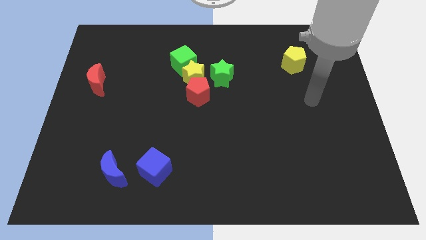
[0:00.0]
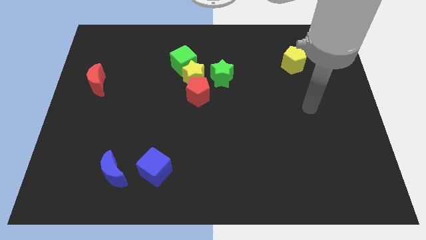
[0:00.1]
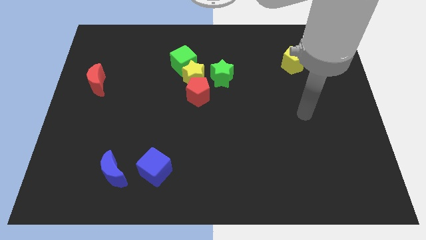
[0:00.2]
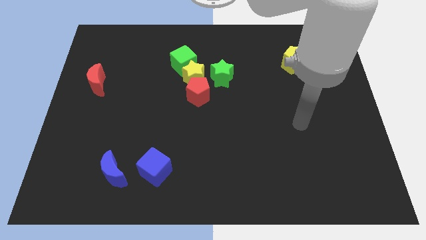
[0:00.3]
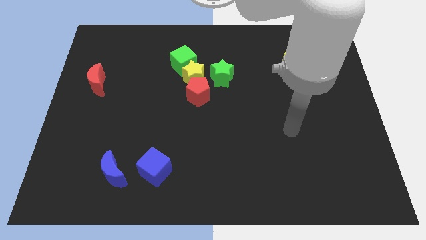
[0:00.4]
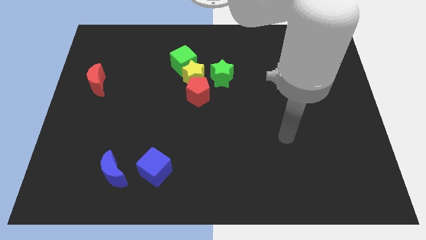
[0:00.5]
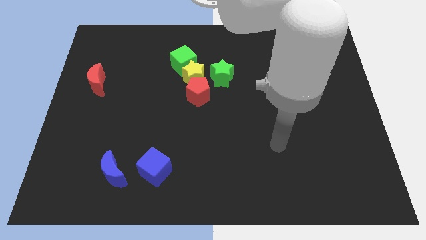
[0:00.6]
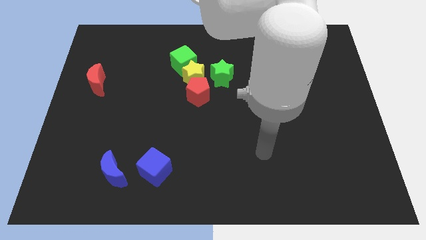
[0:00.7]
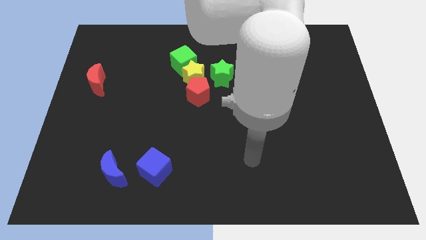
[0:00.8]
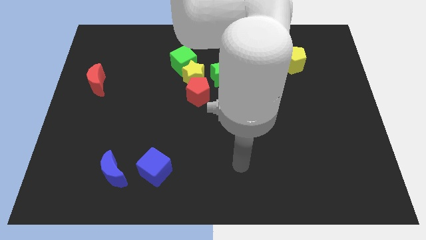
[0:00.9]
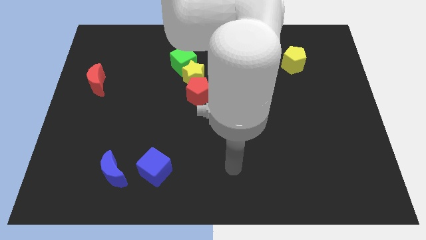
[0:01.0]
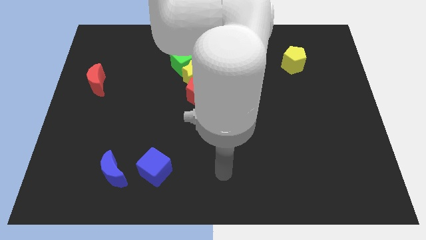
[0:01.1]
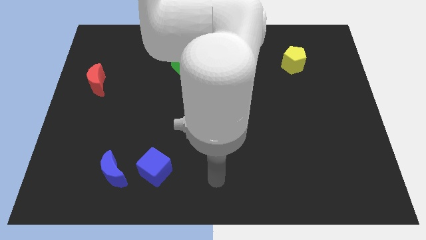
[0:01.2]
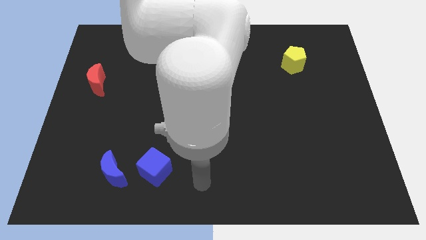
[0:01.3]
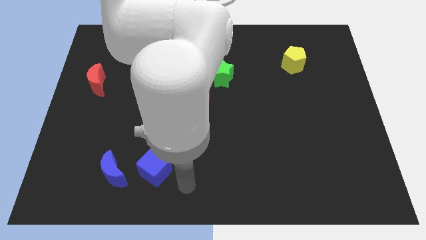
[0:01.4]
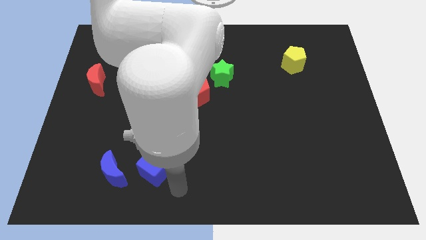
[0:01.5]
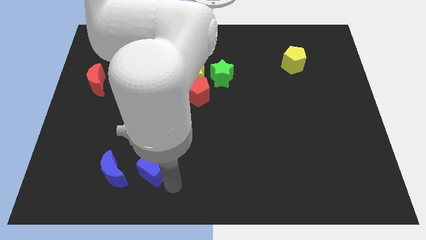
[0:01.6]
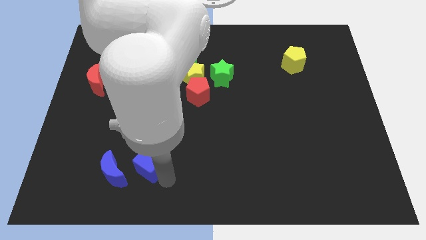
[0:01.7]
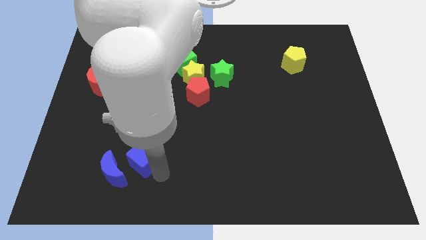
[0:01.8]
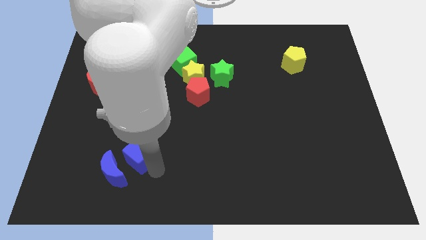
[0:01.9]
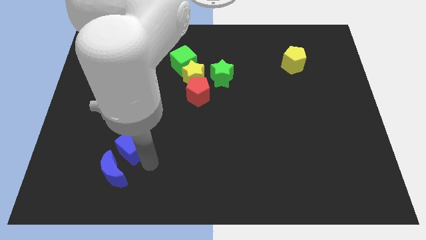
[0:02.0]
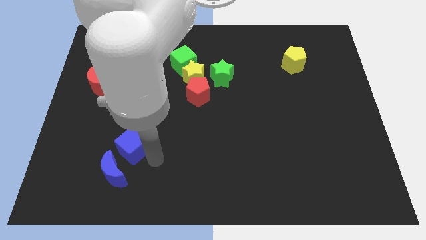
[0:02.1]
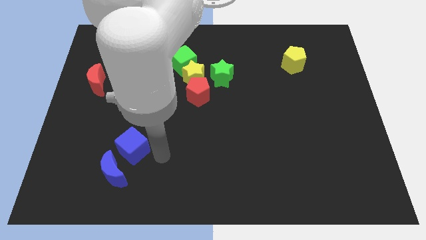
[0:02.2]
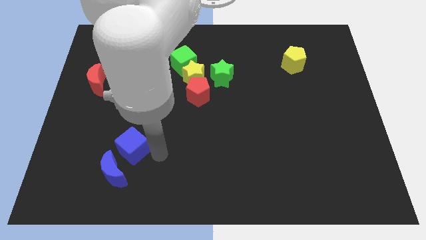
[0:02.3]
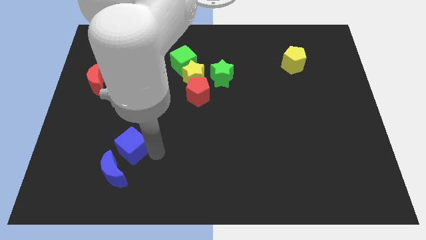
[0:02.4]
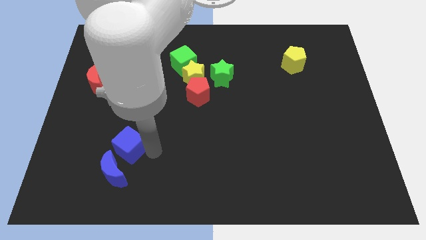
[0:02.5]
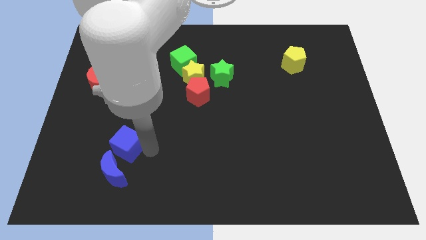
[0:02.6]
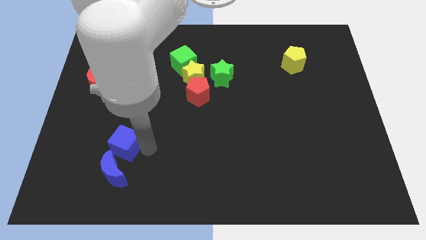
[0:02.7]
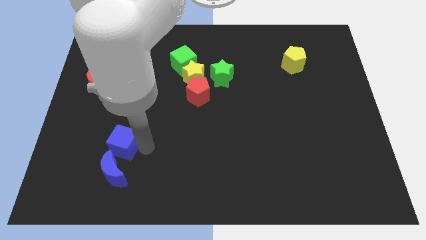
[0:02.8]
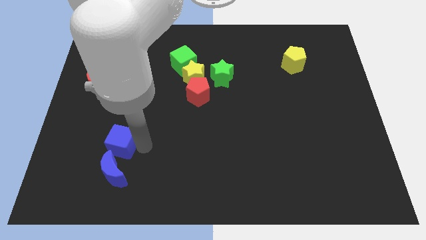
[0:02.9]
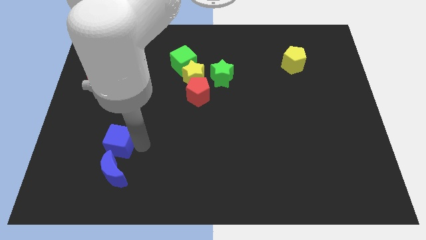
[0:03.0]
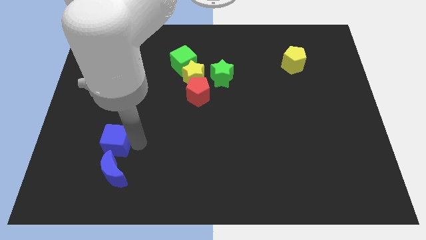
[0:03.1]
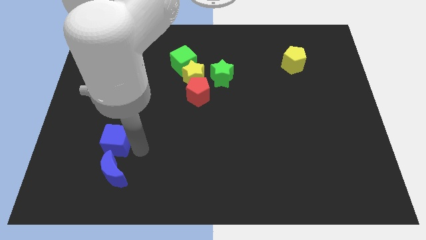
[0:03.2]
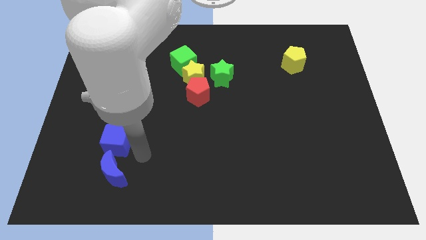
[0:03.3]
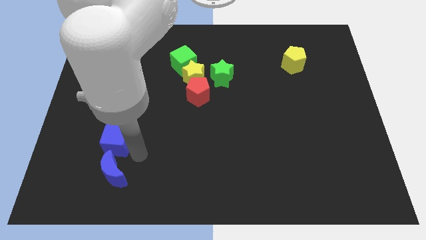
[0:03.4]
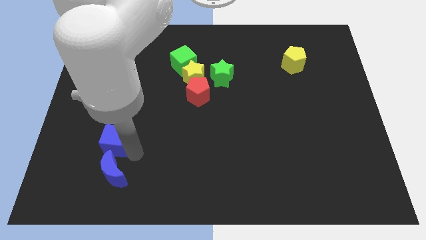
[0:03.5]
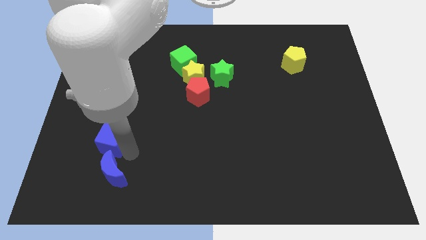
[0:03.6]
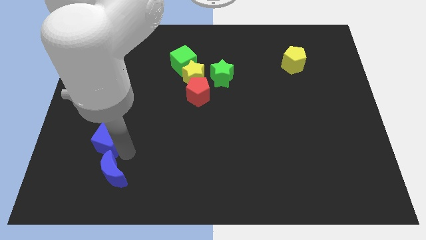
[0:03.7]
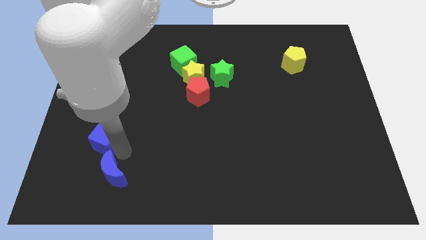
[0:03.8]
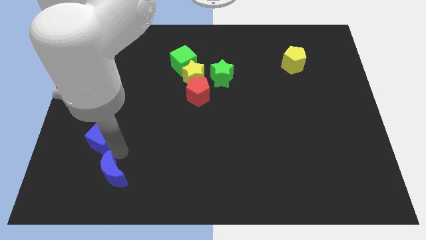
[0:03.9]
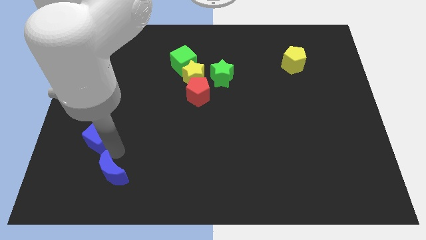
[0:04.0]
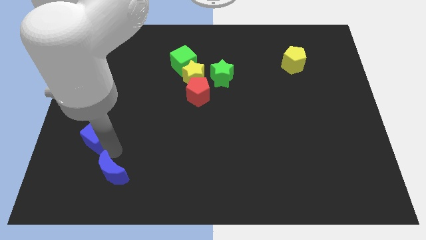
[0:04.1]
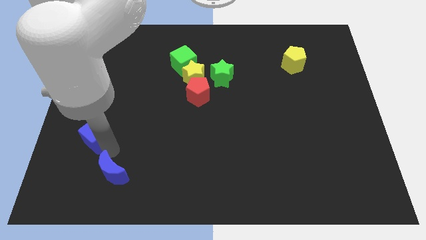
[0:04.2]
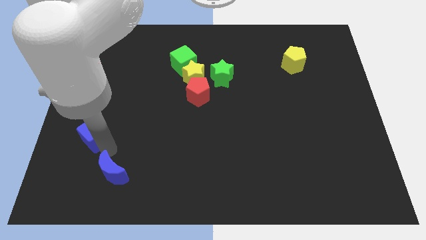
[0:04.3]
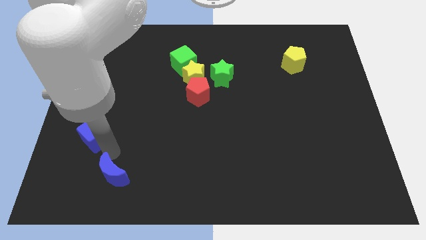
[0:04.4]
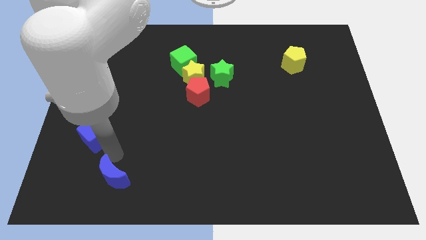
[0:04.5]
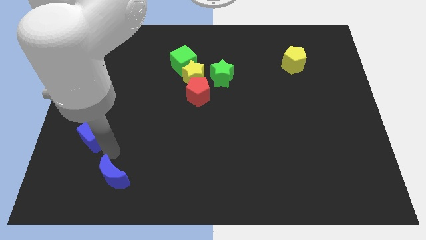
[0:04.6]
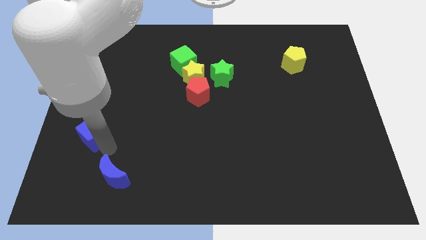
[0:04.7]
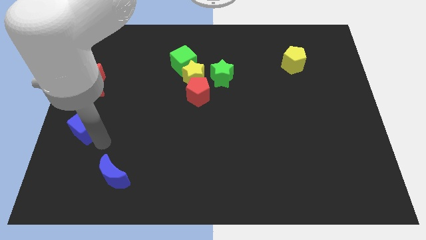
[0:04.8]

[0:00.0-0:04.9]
move the blue cube to the left side

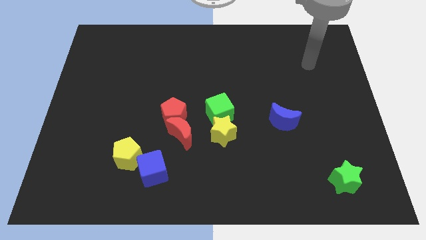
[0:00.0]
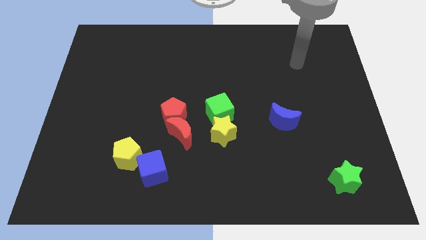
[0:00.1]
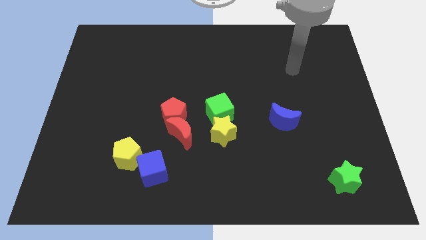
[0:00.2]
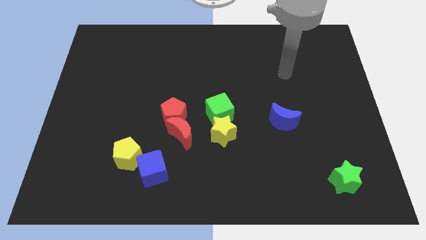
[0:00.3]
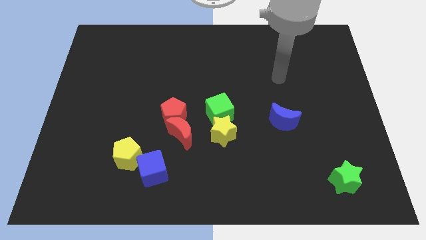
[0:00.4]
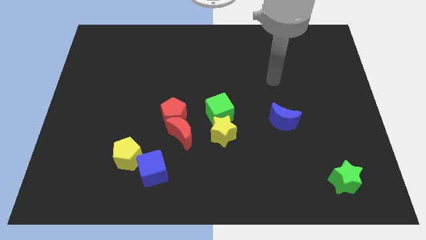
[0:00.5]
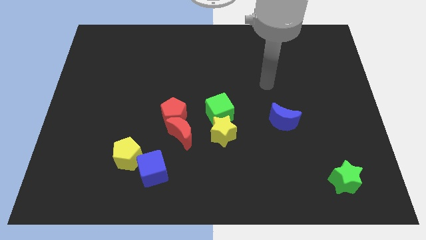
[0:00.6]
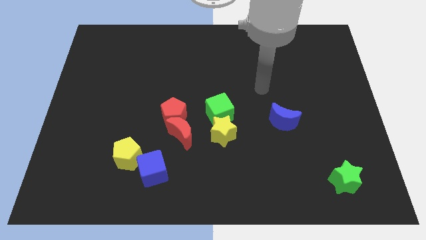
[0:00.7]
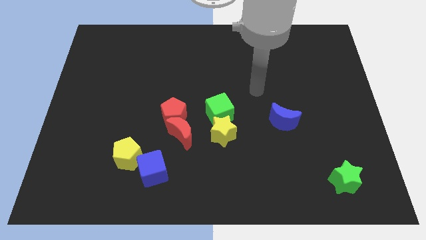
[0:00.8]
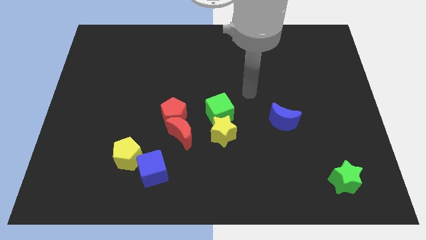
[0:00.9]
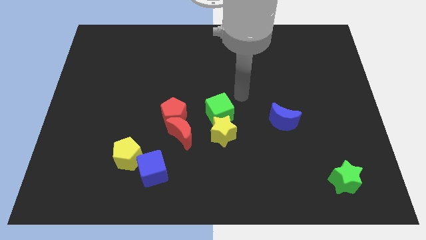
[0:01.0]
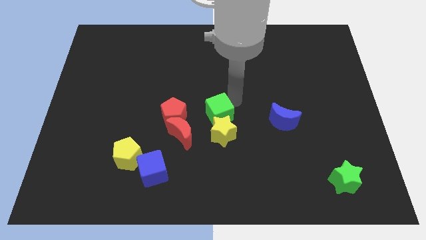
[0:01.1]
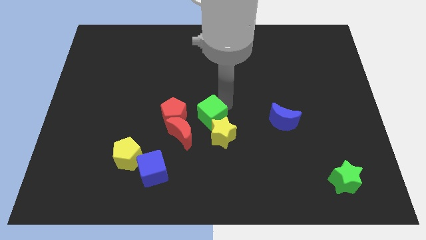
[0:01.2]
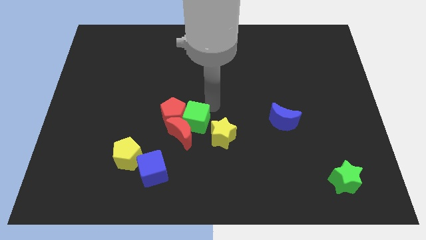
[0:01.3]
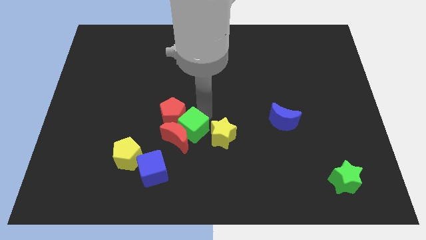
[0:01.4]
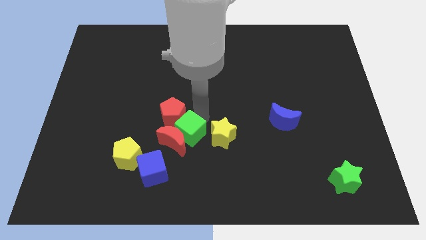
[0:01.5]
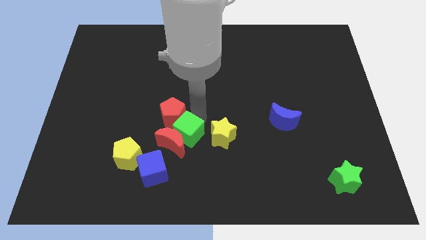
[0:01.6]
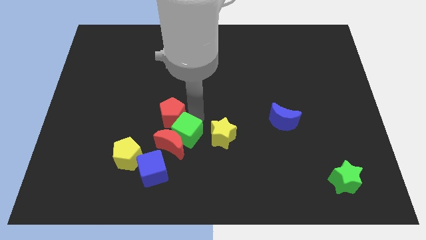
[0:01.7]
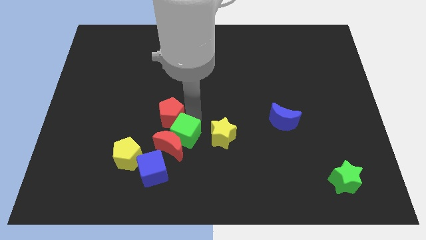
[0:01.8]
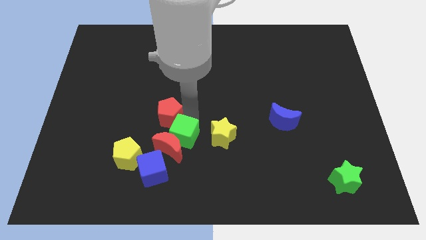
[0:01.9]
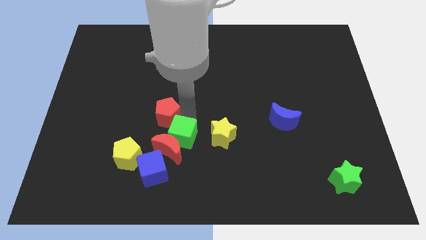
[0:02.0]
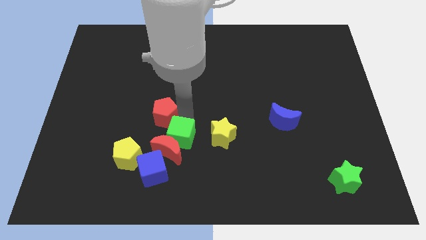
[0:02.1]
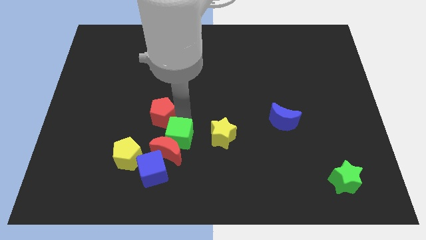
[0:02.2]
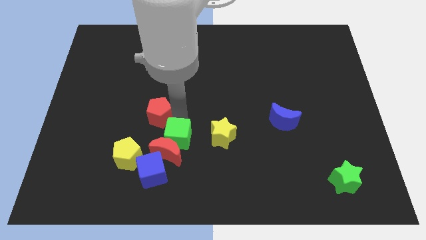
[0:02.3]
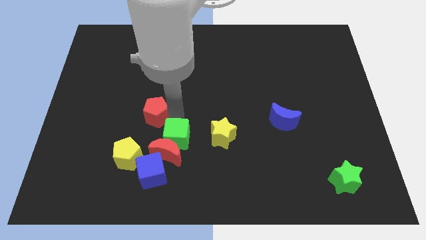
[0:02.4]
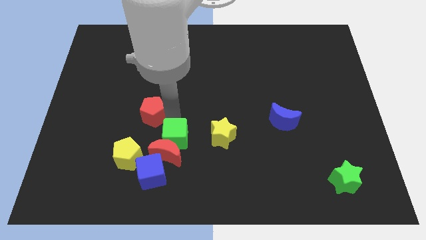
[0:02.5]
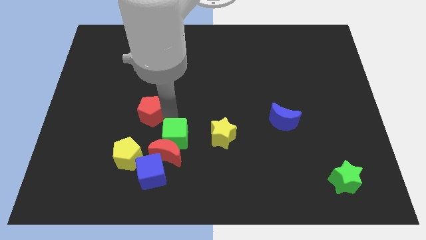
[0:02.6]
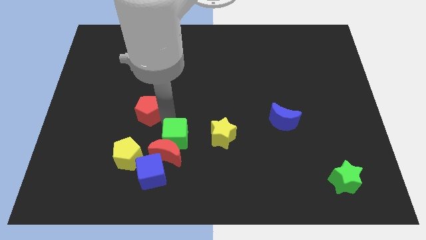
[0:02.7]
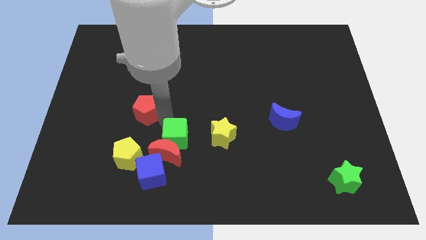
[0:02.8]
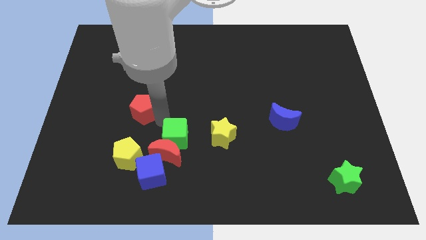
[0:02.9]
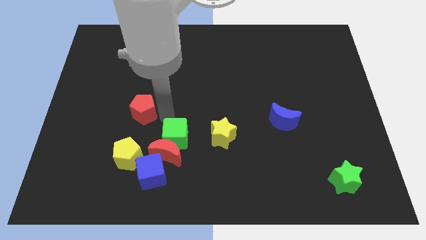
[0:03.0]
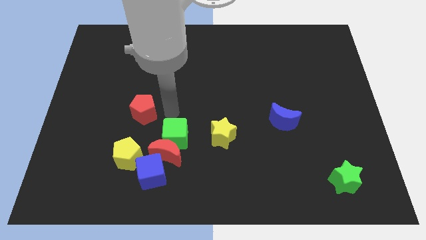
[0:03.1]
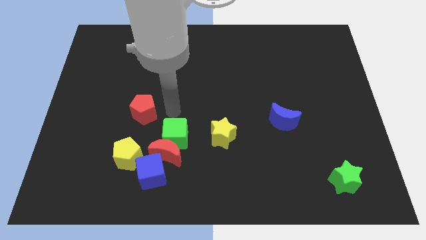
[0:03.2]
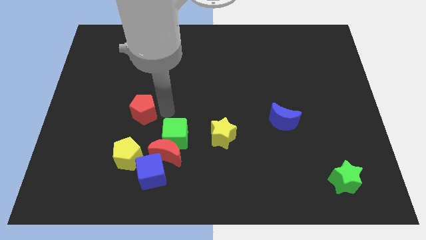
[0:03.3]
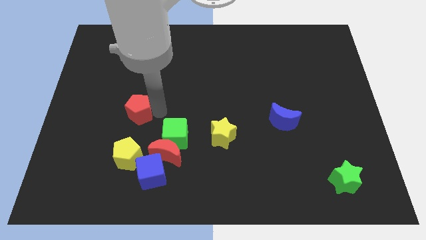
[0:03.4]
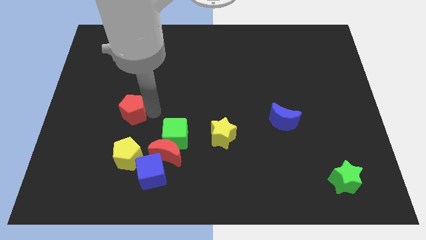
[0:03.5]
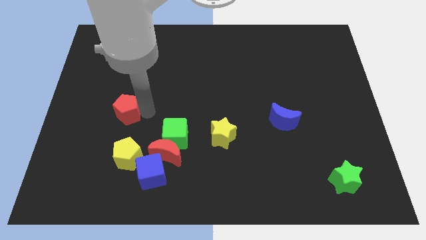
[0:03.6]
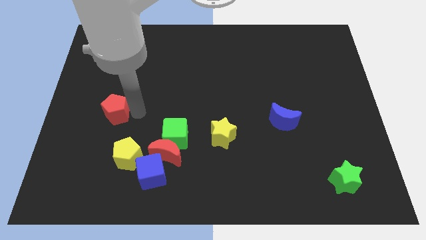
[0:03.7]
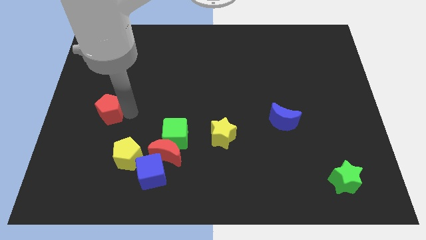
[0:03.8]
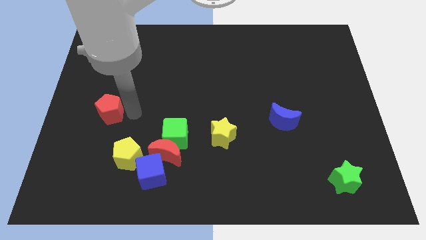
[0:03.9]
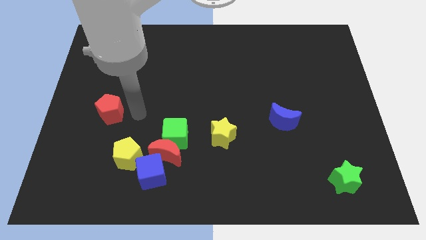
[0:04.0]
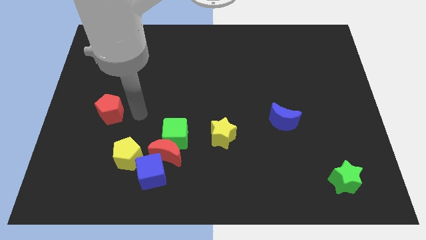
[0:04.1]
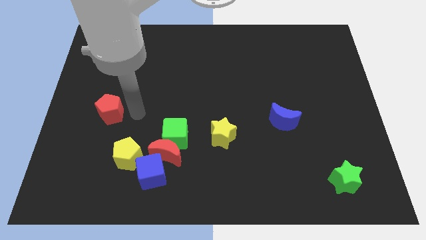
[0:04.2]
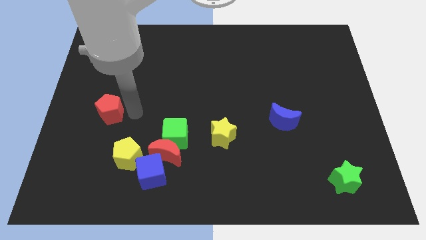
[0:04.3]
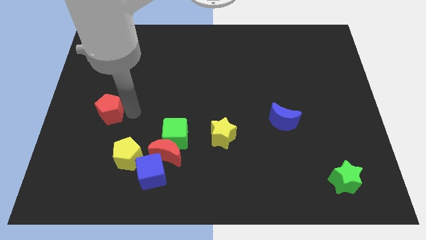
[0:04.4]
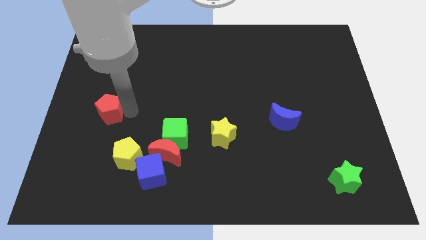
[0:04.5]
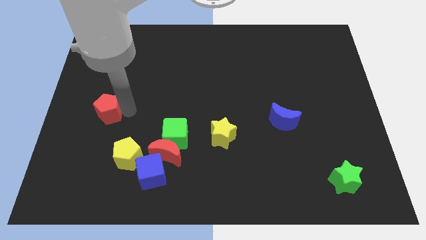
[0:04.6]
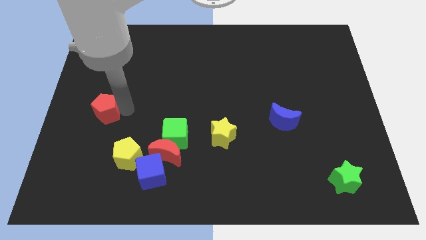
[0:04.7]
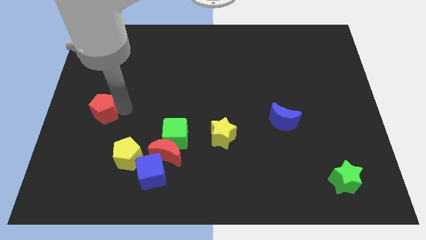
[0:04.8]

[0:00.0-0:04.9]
slide the red pentagon to the left side
